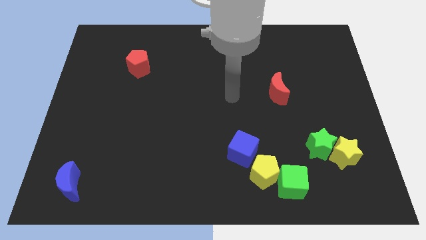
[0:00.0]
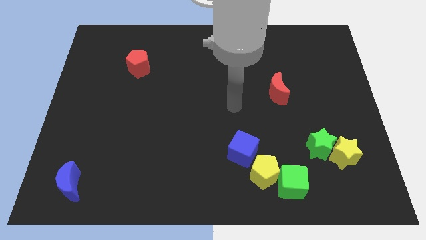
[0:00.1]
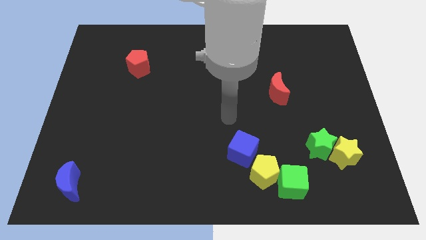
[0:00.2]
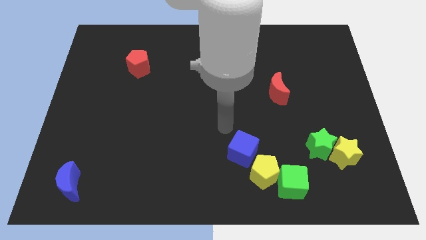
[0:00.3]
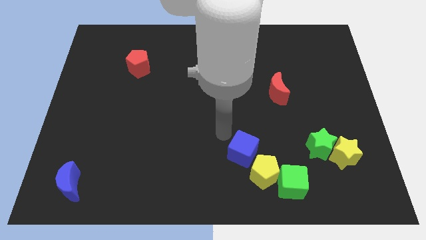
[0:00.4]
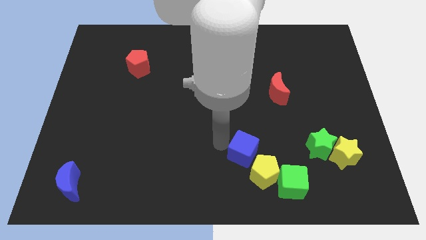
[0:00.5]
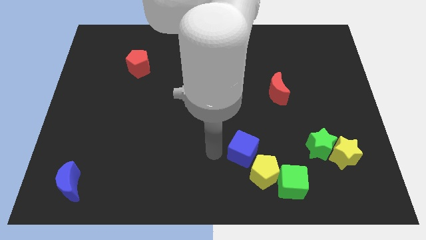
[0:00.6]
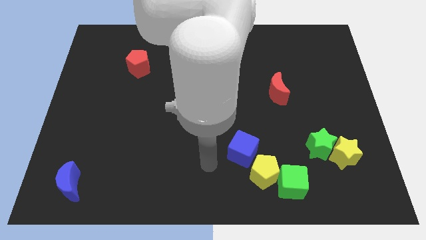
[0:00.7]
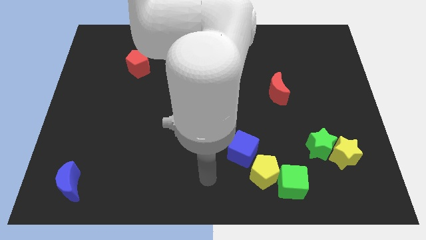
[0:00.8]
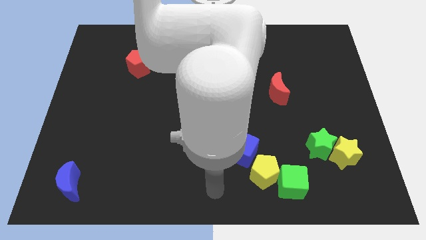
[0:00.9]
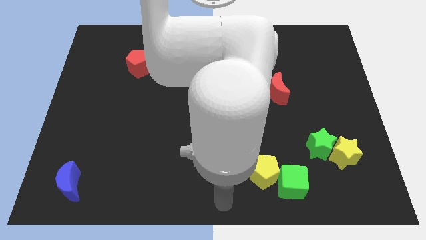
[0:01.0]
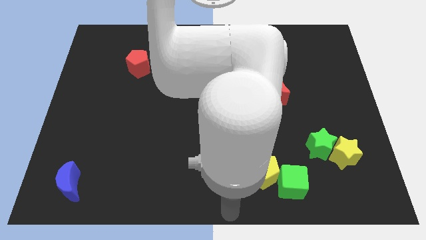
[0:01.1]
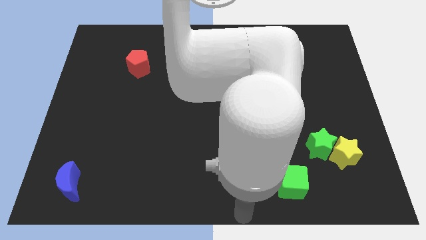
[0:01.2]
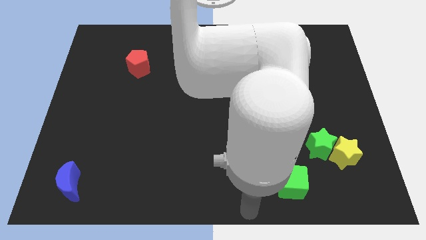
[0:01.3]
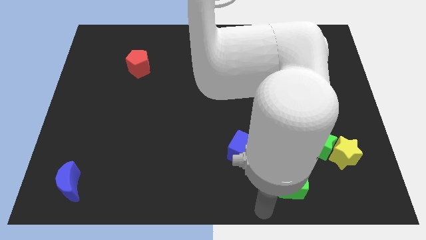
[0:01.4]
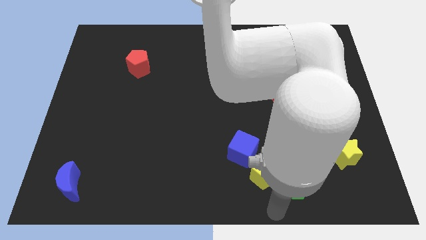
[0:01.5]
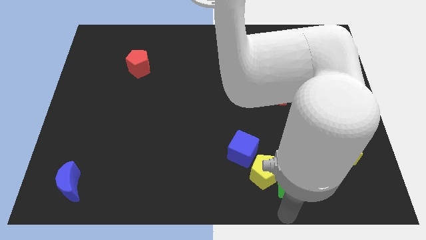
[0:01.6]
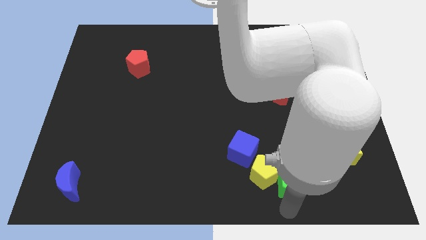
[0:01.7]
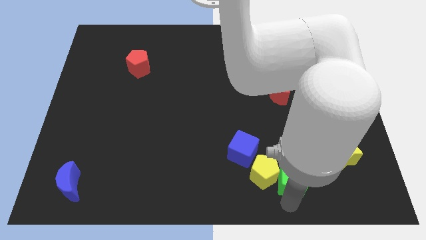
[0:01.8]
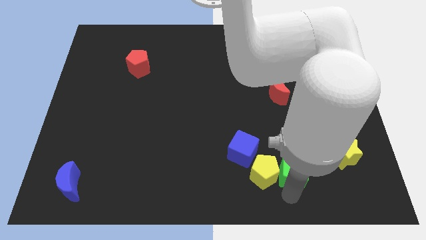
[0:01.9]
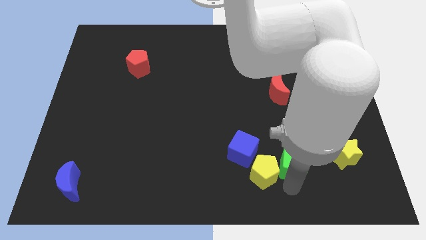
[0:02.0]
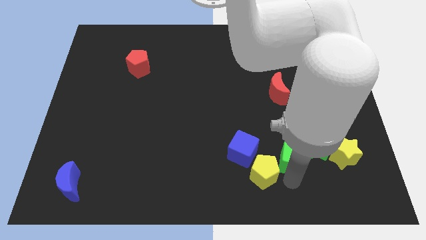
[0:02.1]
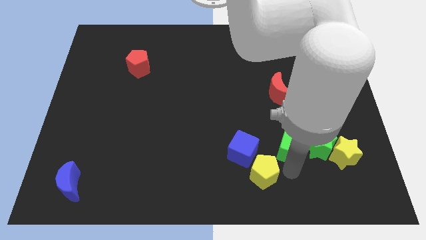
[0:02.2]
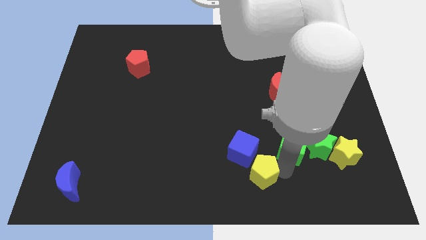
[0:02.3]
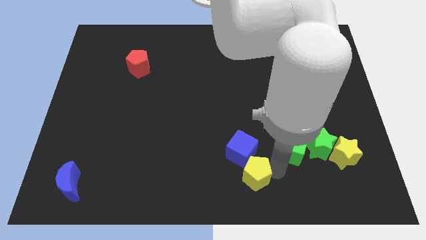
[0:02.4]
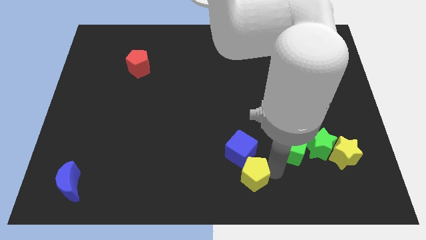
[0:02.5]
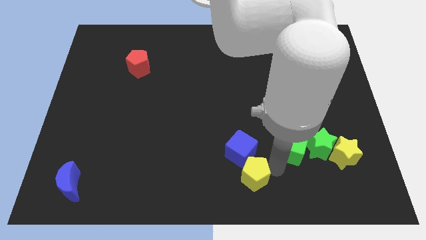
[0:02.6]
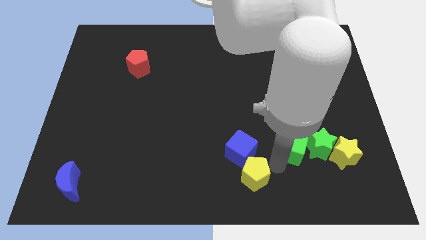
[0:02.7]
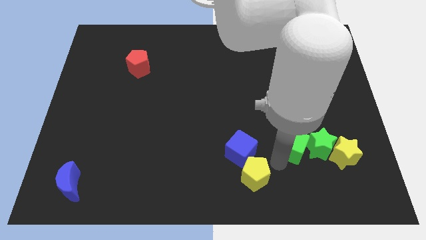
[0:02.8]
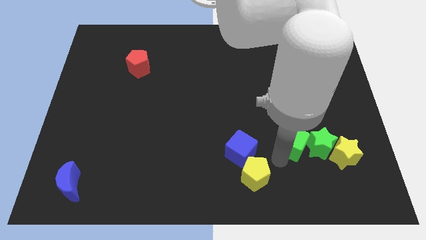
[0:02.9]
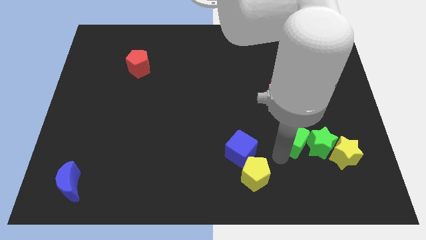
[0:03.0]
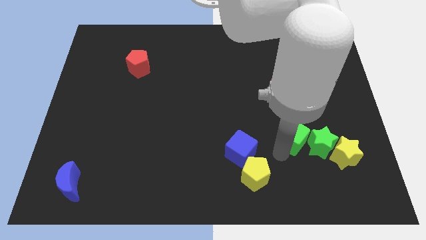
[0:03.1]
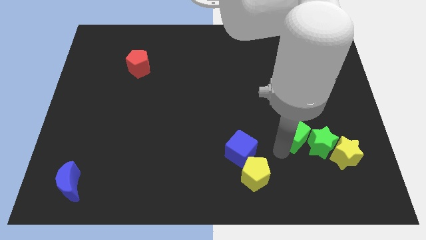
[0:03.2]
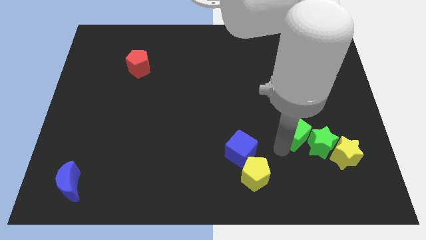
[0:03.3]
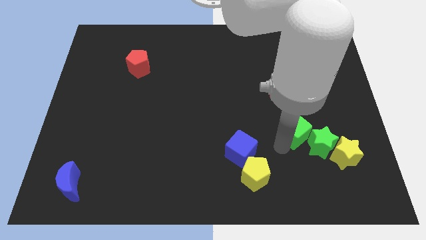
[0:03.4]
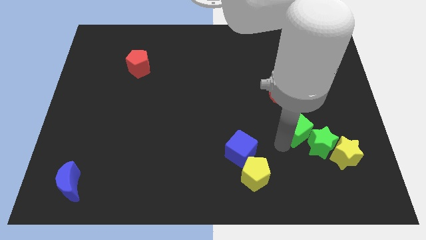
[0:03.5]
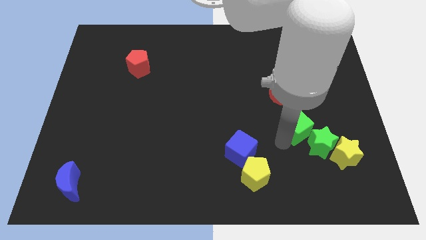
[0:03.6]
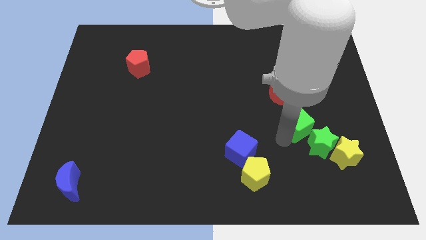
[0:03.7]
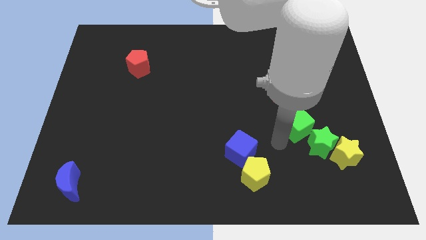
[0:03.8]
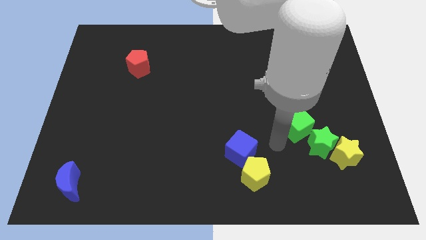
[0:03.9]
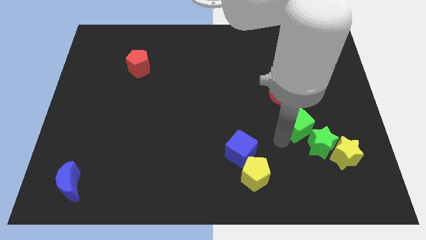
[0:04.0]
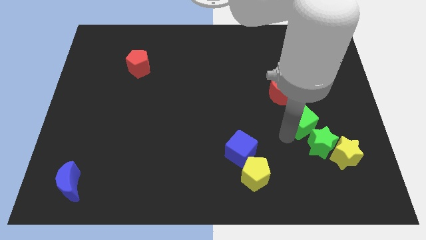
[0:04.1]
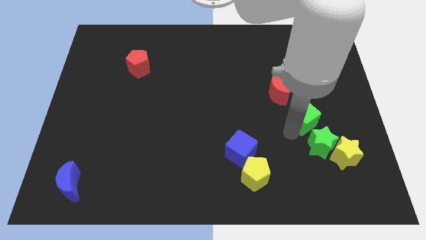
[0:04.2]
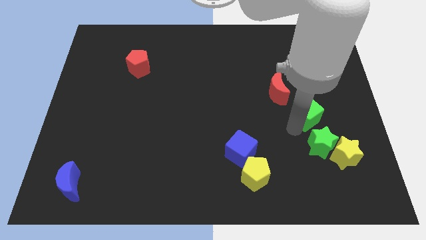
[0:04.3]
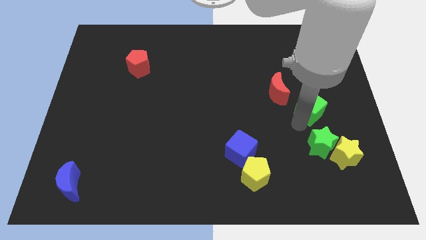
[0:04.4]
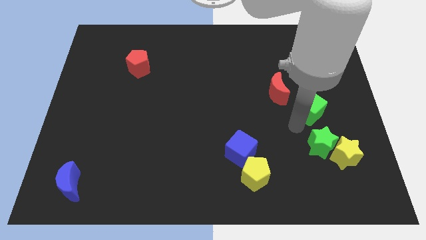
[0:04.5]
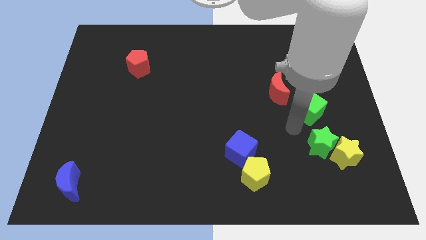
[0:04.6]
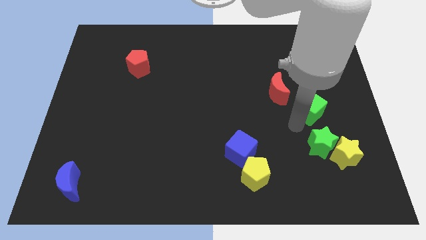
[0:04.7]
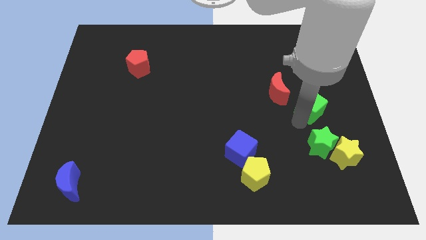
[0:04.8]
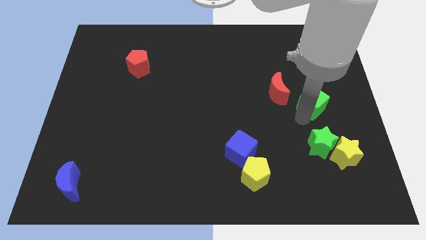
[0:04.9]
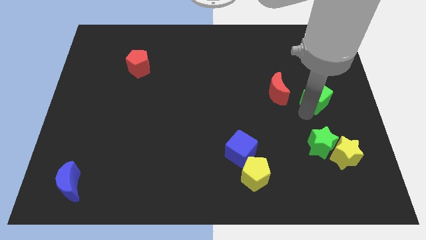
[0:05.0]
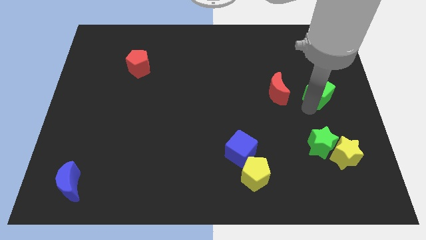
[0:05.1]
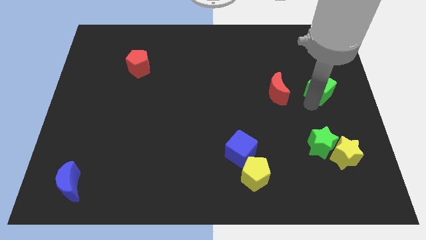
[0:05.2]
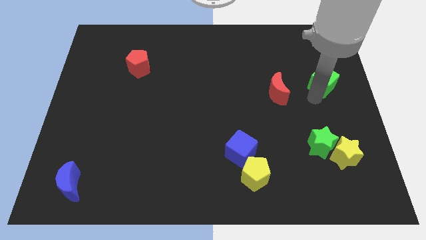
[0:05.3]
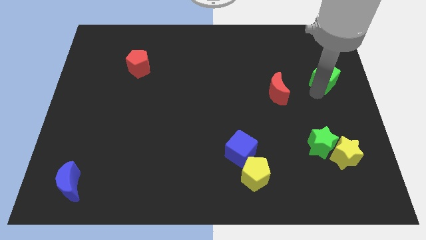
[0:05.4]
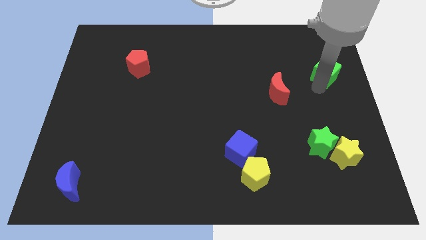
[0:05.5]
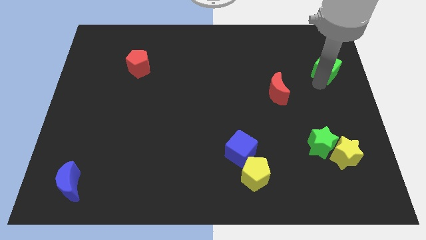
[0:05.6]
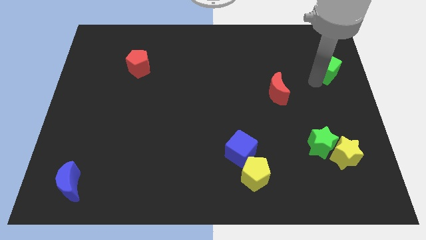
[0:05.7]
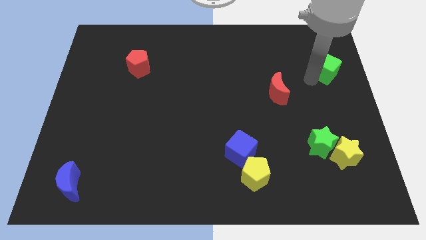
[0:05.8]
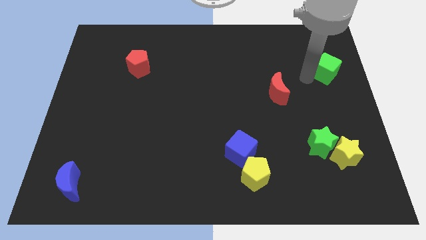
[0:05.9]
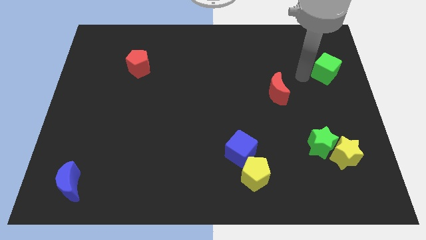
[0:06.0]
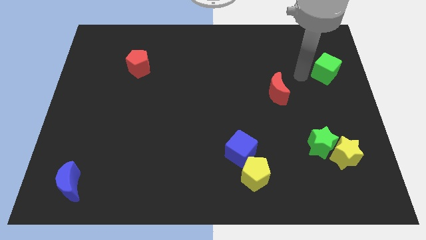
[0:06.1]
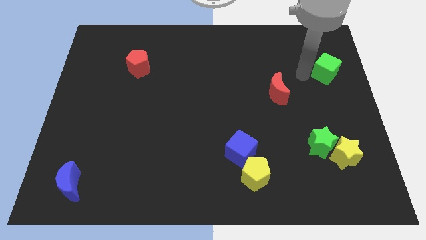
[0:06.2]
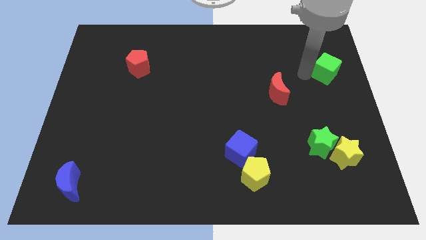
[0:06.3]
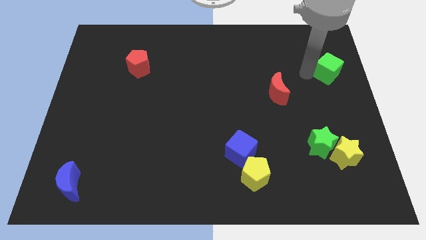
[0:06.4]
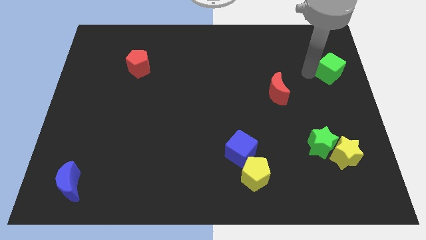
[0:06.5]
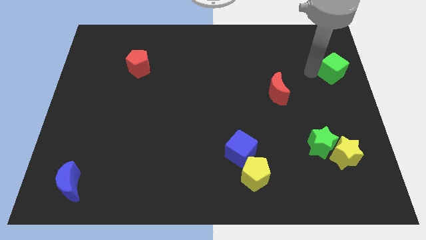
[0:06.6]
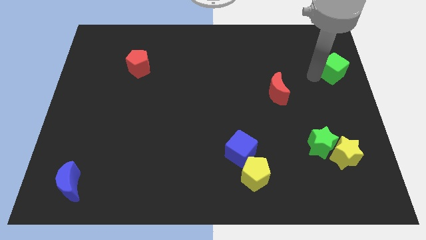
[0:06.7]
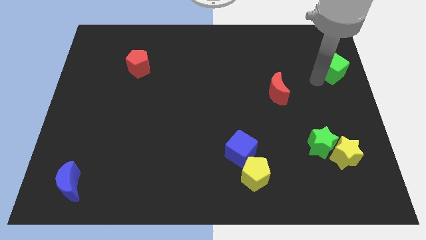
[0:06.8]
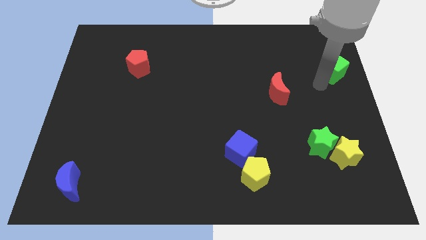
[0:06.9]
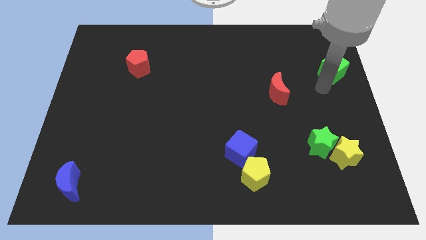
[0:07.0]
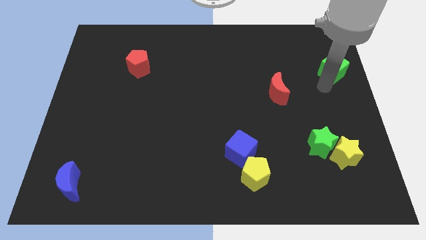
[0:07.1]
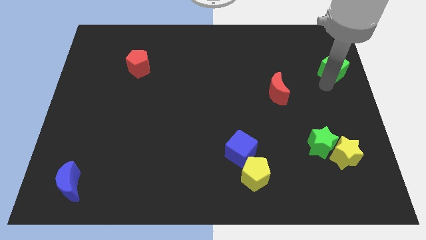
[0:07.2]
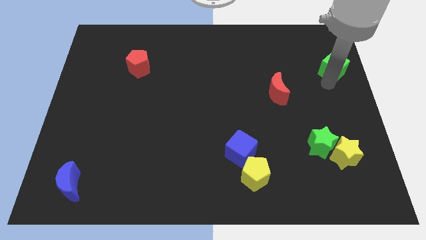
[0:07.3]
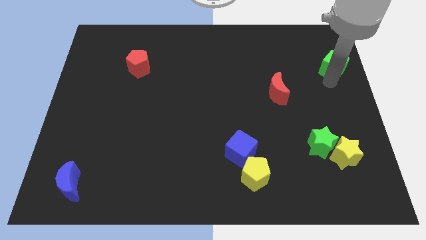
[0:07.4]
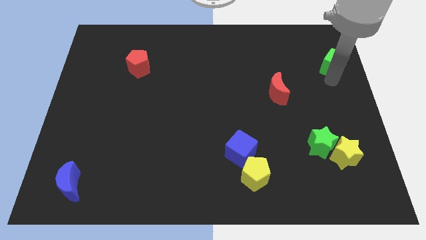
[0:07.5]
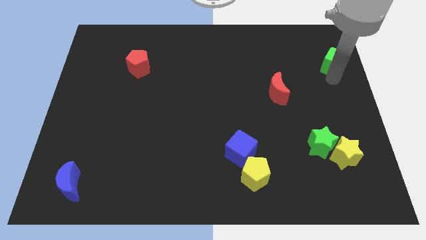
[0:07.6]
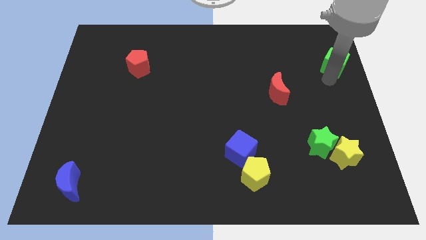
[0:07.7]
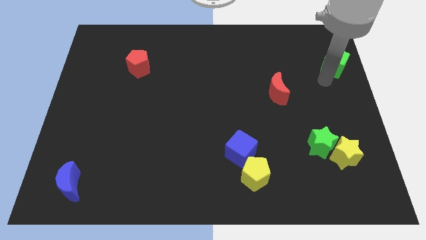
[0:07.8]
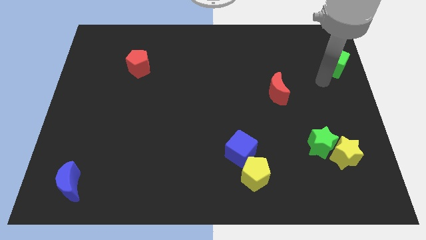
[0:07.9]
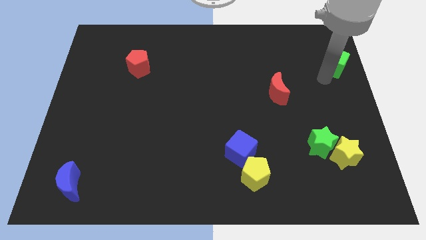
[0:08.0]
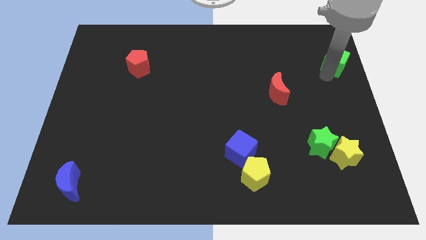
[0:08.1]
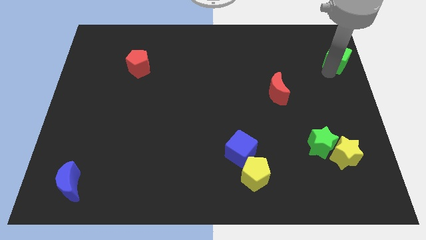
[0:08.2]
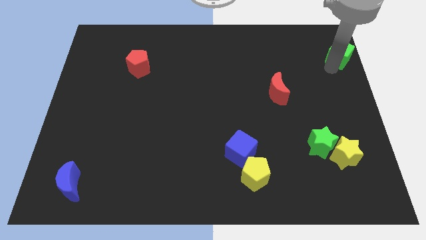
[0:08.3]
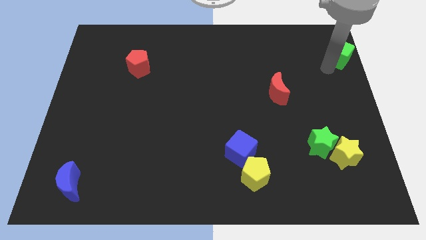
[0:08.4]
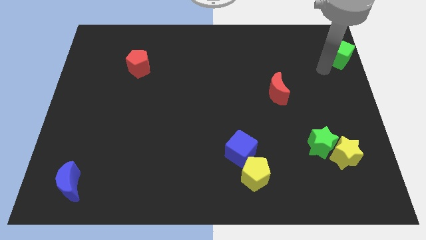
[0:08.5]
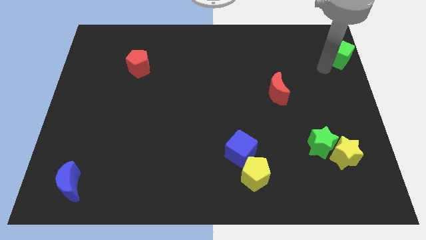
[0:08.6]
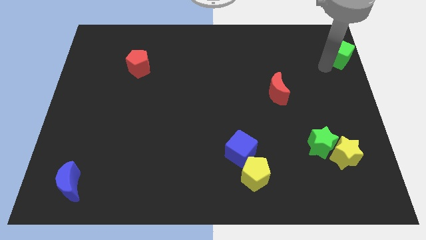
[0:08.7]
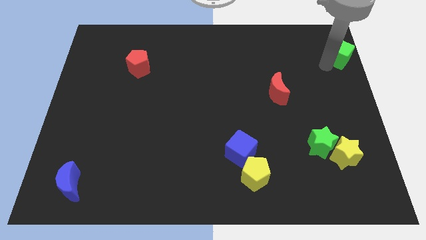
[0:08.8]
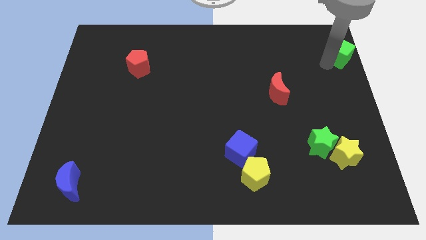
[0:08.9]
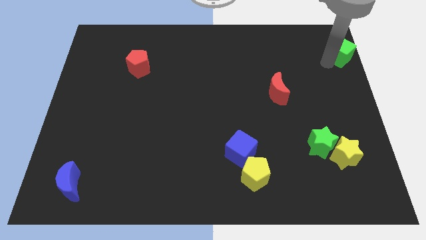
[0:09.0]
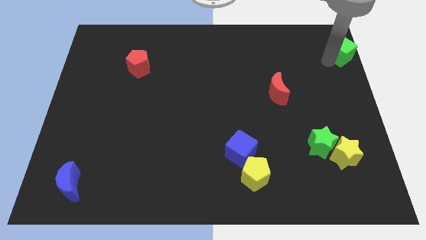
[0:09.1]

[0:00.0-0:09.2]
move the green cube to the top right
